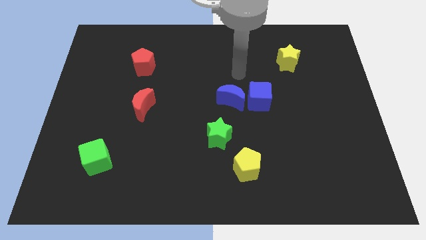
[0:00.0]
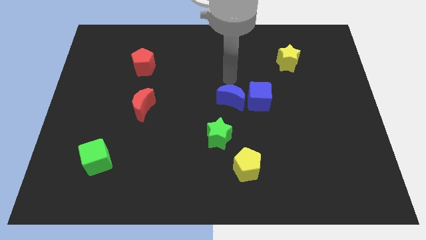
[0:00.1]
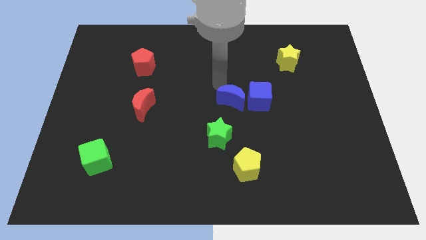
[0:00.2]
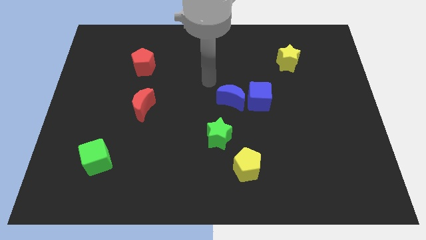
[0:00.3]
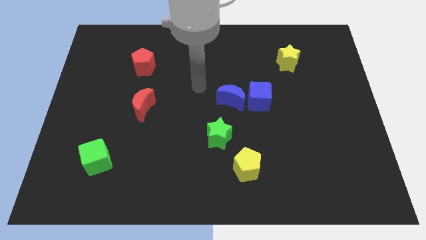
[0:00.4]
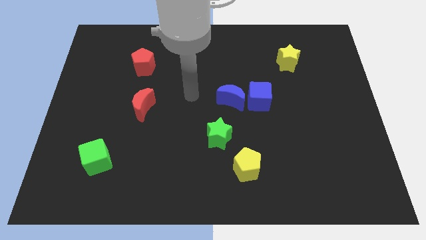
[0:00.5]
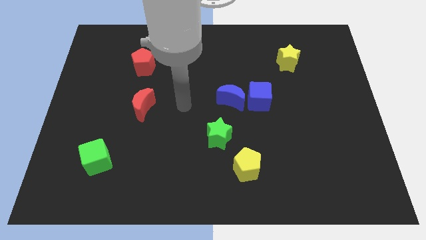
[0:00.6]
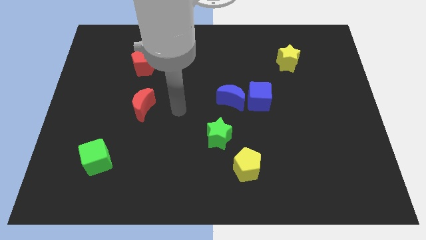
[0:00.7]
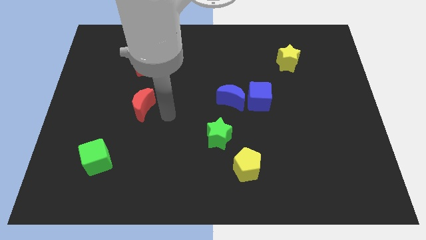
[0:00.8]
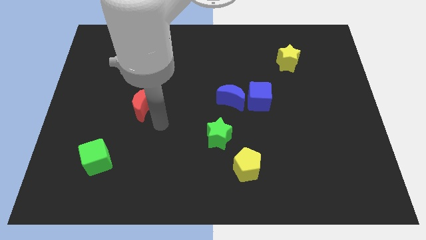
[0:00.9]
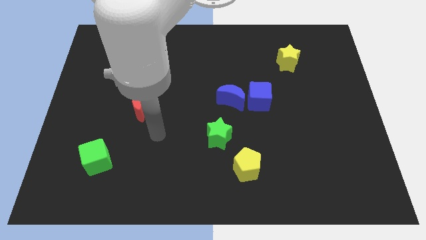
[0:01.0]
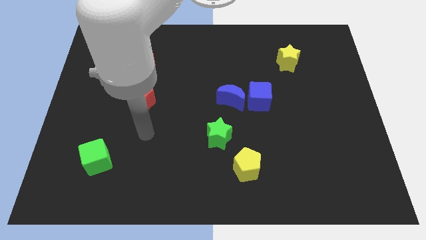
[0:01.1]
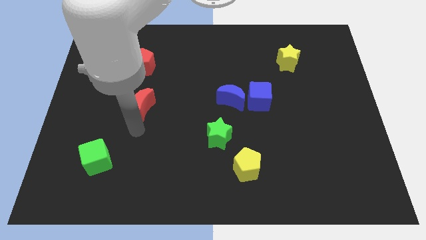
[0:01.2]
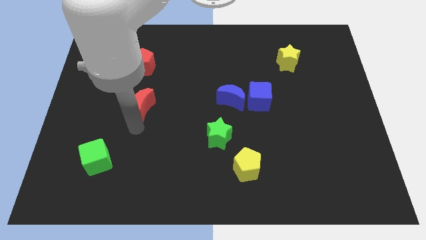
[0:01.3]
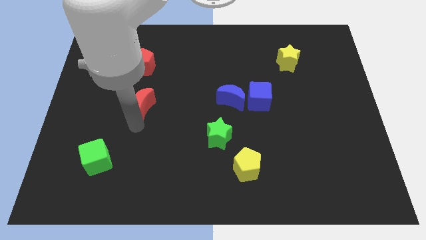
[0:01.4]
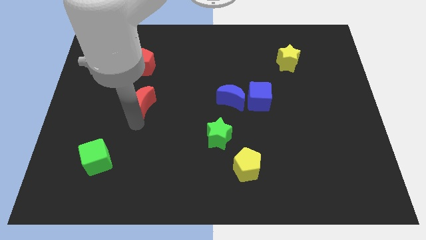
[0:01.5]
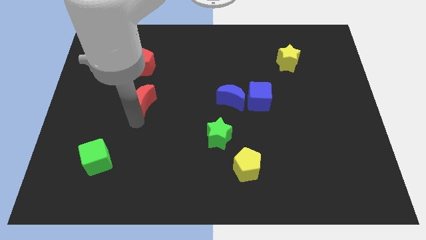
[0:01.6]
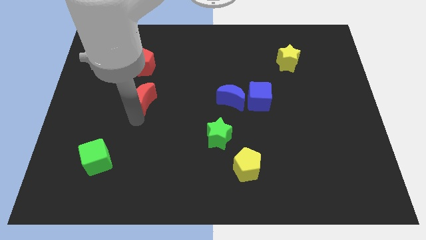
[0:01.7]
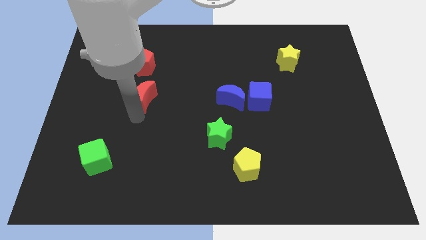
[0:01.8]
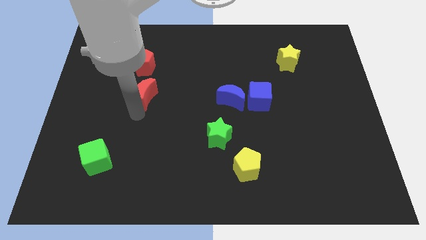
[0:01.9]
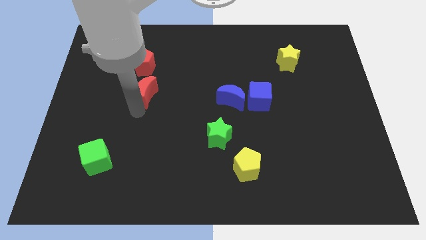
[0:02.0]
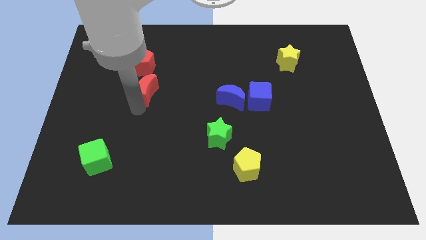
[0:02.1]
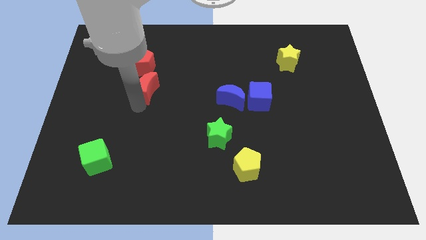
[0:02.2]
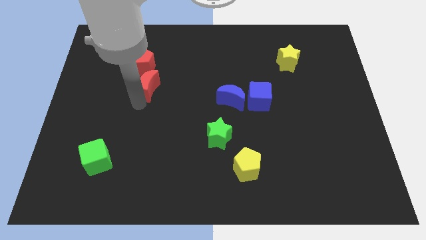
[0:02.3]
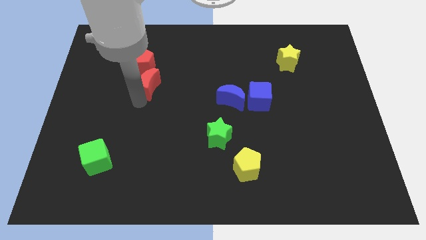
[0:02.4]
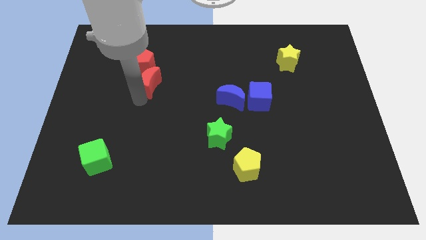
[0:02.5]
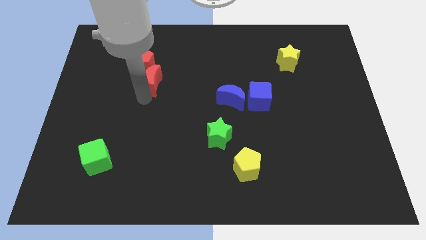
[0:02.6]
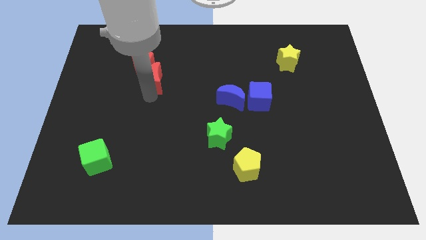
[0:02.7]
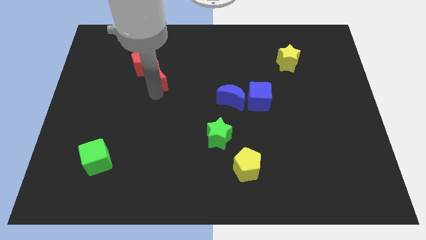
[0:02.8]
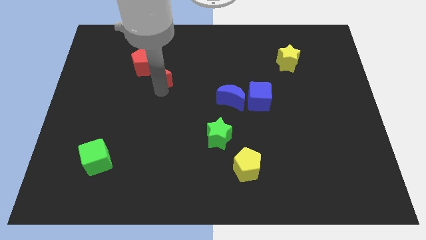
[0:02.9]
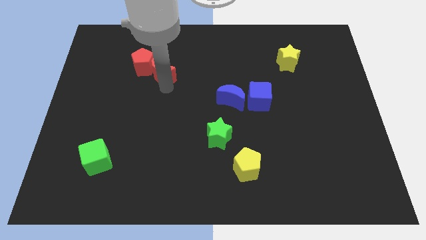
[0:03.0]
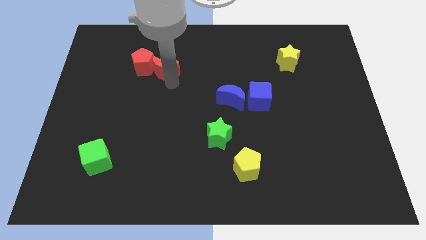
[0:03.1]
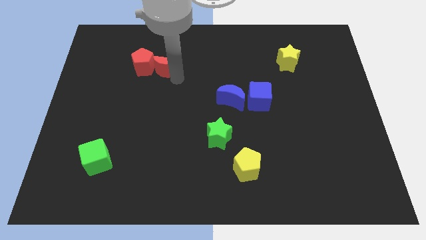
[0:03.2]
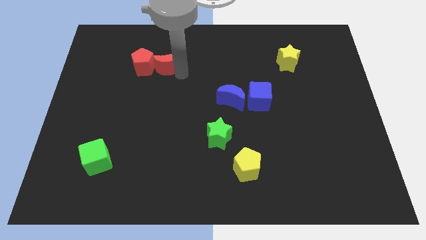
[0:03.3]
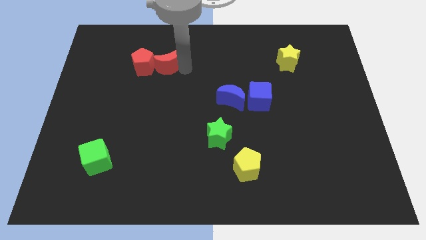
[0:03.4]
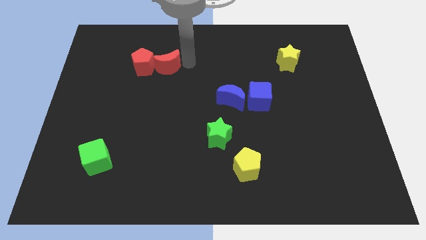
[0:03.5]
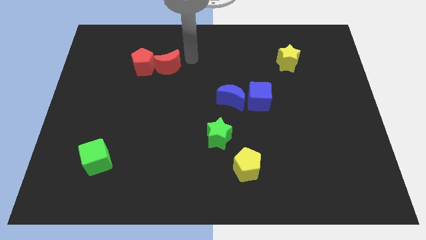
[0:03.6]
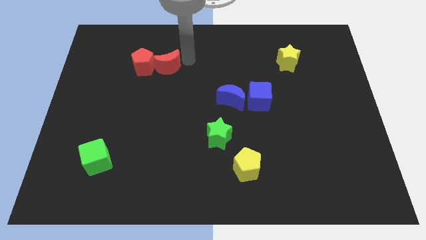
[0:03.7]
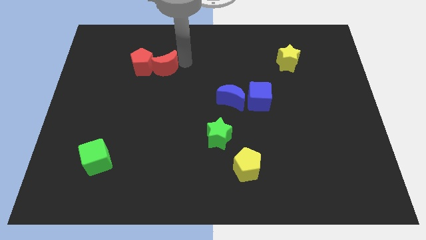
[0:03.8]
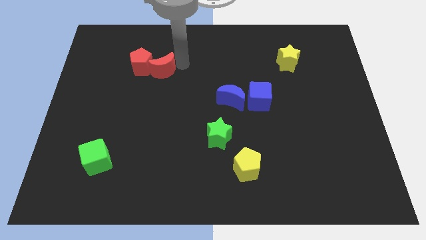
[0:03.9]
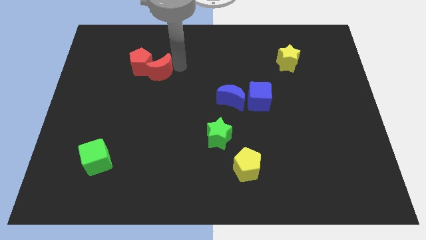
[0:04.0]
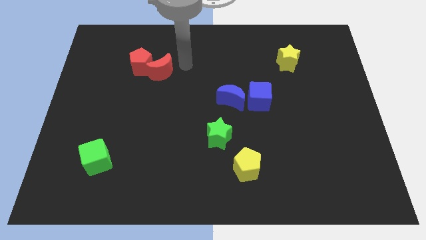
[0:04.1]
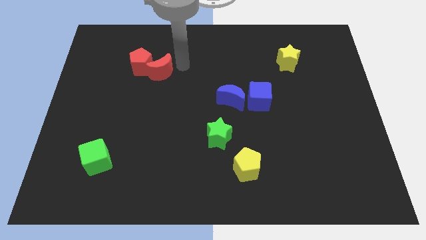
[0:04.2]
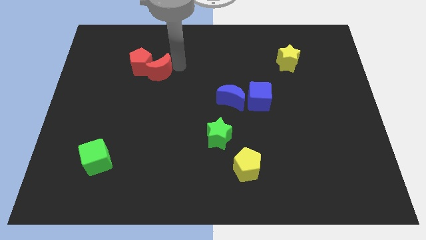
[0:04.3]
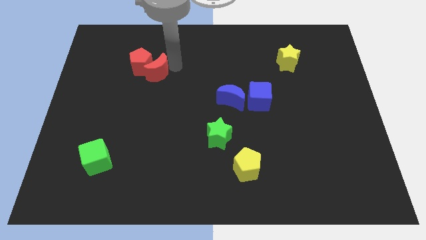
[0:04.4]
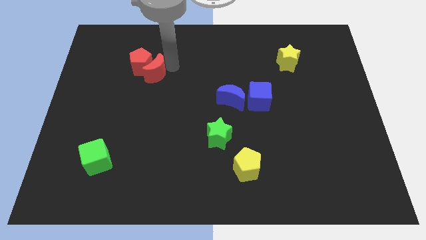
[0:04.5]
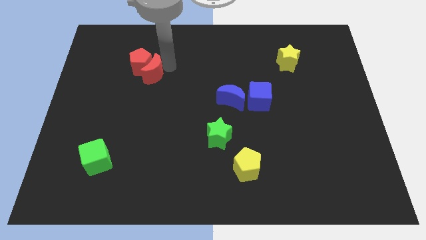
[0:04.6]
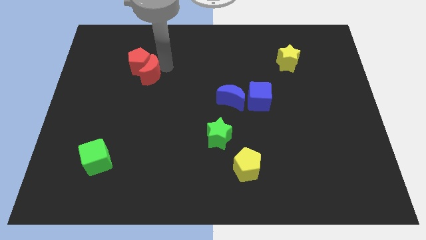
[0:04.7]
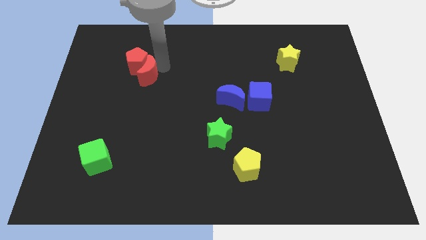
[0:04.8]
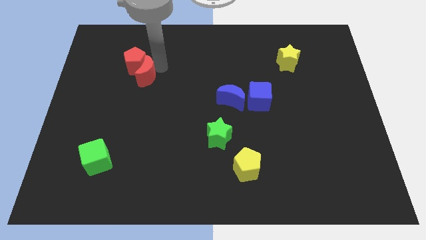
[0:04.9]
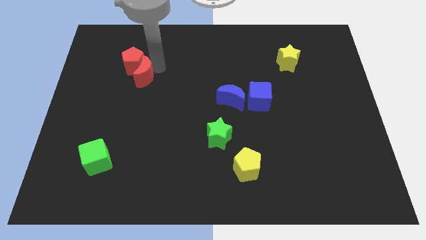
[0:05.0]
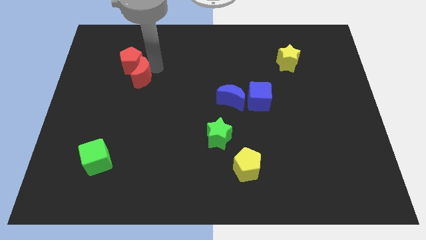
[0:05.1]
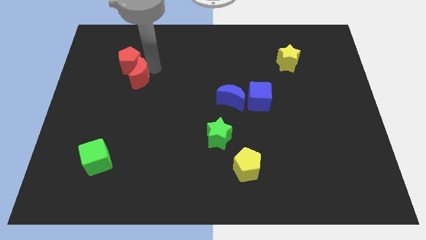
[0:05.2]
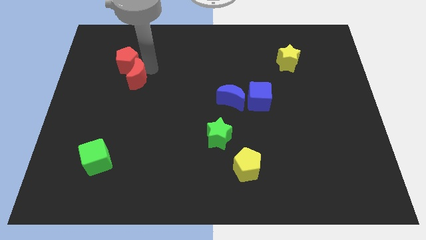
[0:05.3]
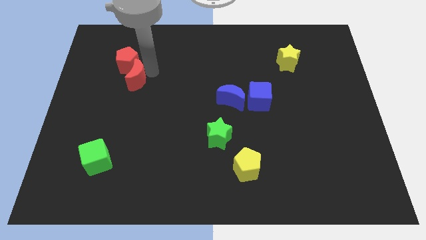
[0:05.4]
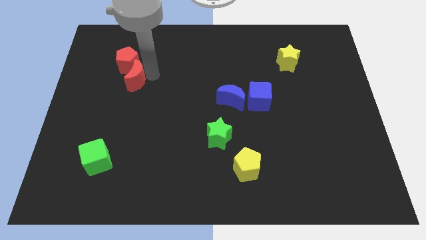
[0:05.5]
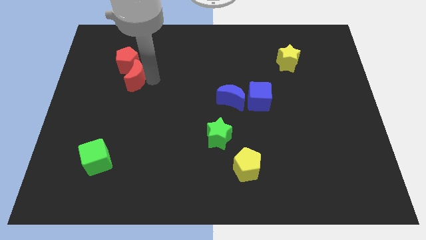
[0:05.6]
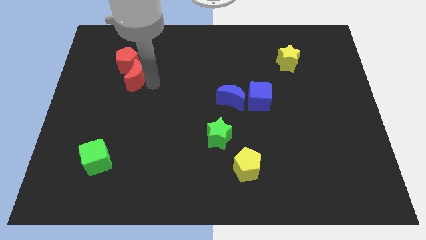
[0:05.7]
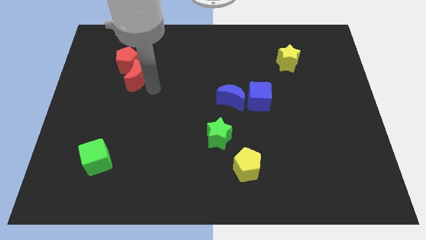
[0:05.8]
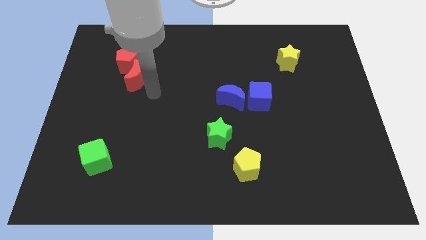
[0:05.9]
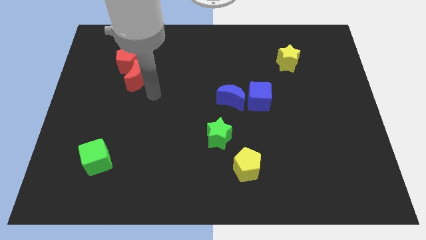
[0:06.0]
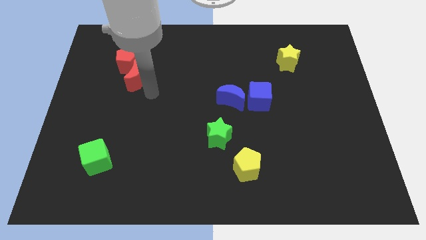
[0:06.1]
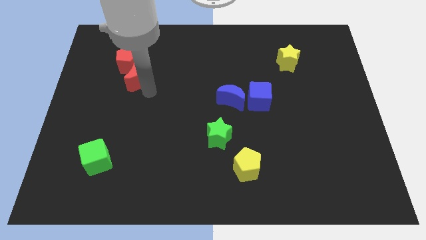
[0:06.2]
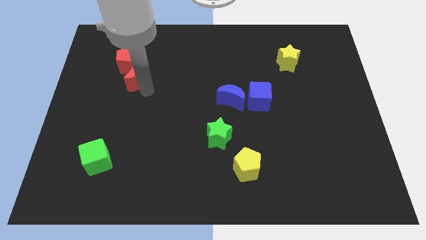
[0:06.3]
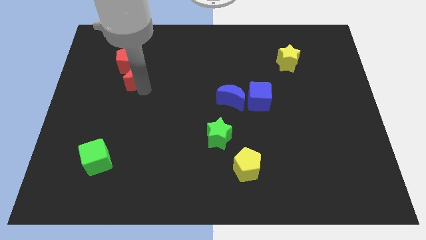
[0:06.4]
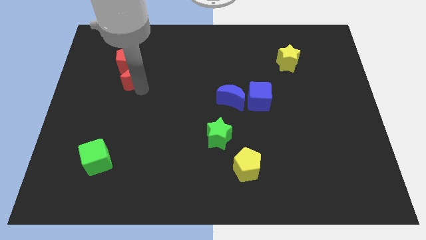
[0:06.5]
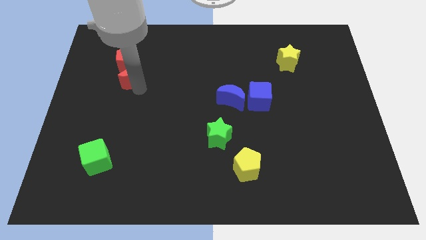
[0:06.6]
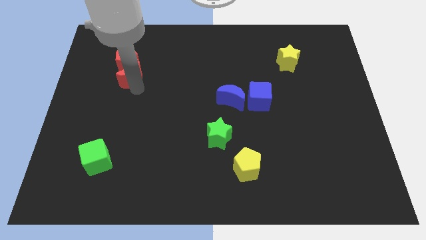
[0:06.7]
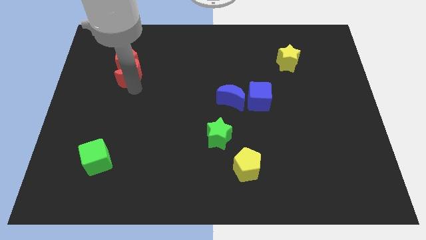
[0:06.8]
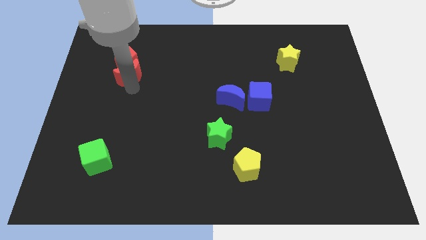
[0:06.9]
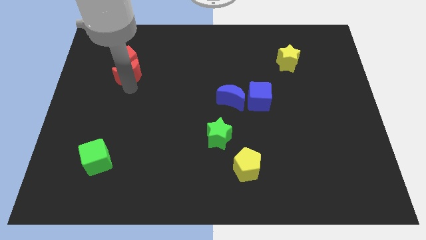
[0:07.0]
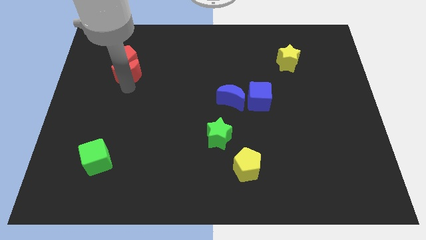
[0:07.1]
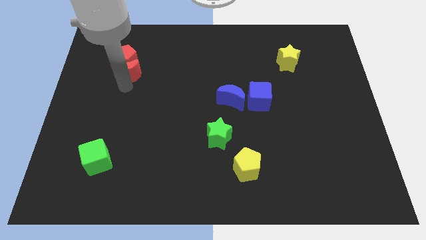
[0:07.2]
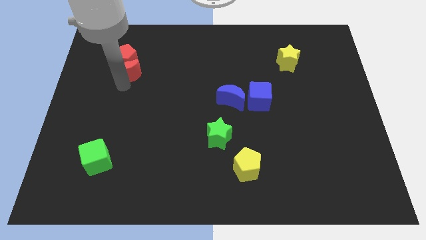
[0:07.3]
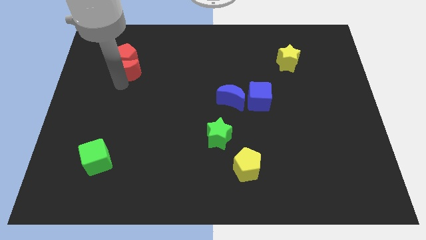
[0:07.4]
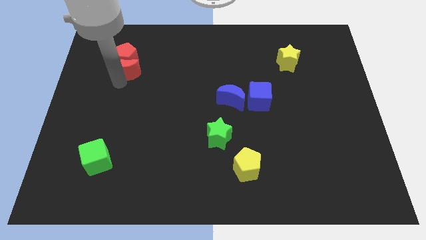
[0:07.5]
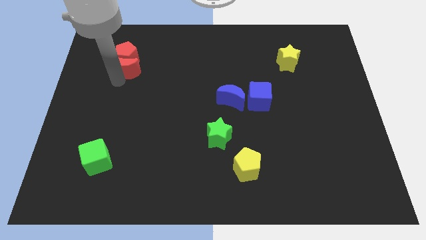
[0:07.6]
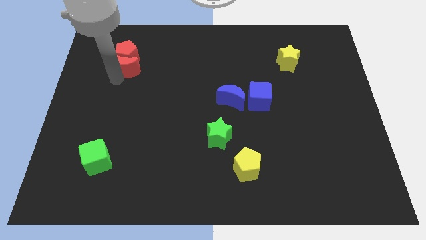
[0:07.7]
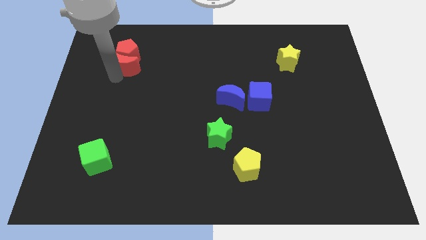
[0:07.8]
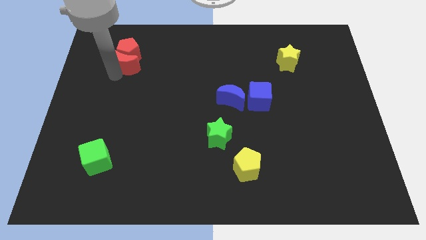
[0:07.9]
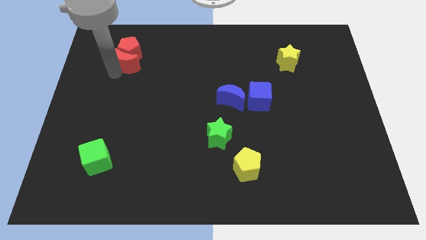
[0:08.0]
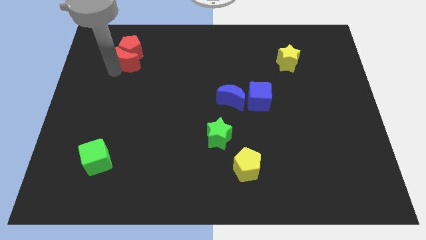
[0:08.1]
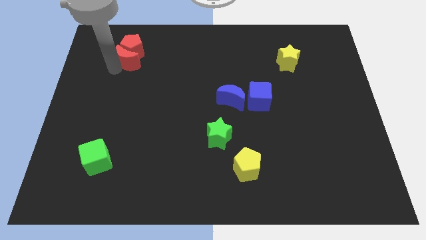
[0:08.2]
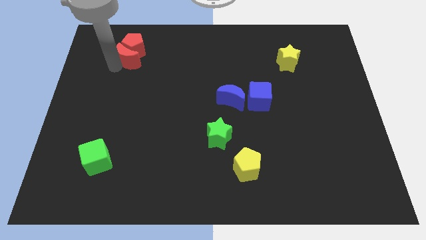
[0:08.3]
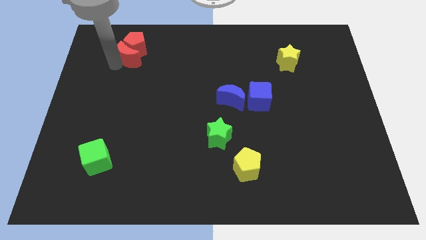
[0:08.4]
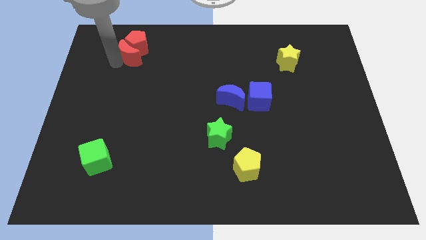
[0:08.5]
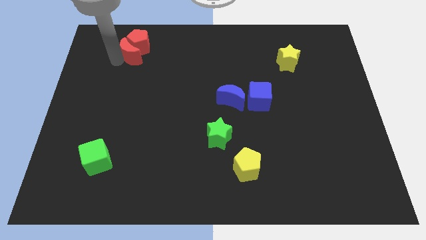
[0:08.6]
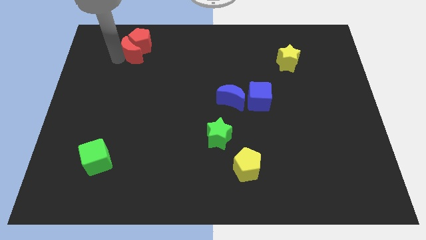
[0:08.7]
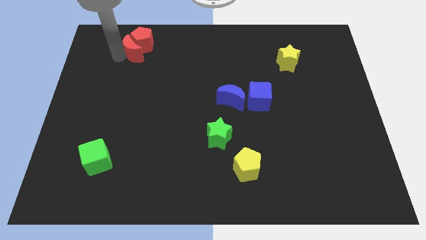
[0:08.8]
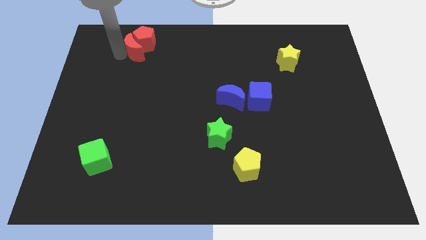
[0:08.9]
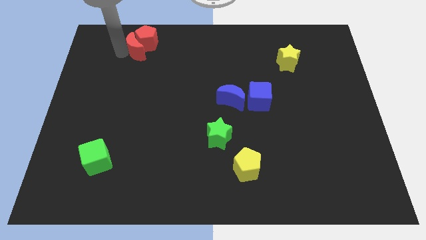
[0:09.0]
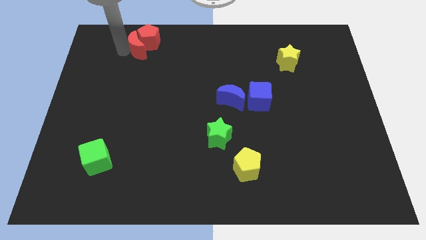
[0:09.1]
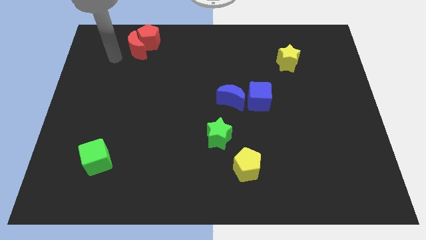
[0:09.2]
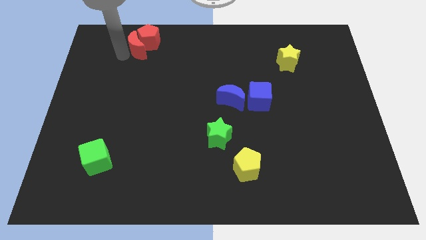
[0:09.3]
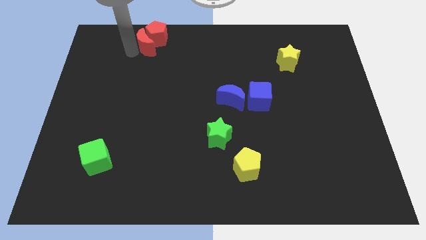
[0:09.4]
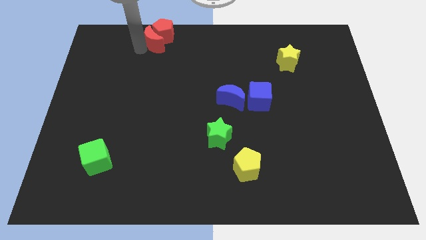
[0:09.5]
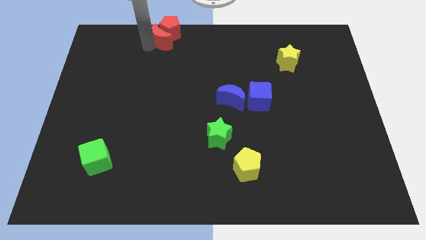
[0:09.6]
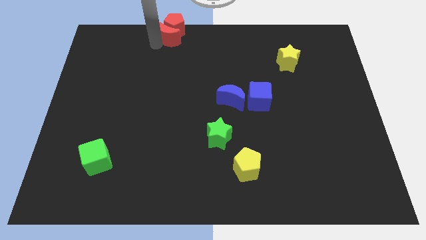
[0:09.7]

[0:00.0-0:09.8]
move the red moon to the top
